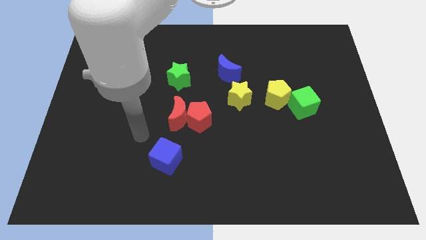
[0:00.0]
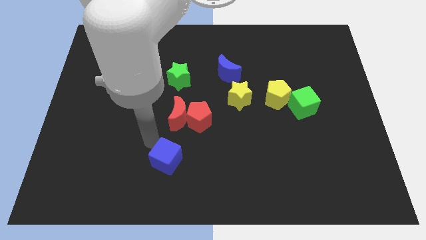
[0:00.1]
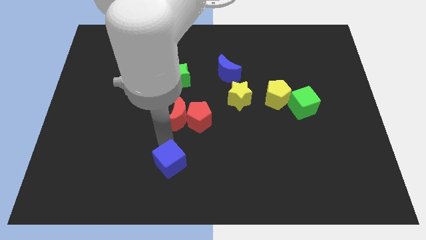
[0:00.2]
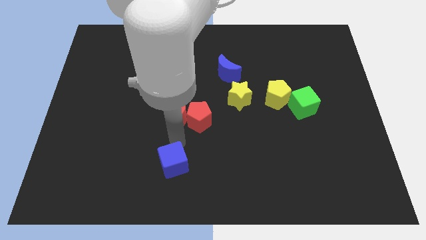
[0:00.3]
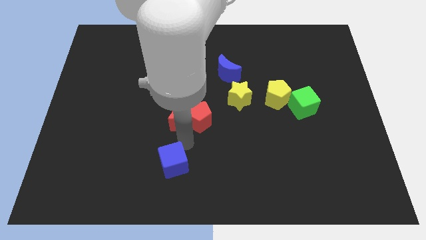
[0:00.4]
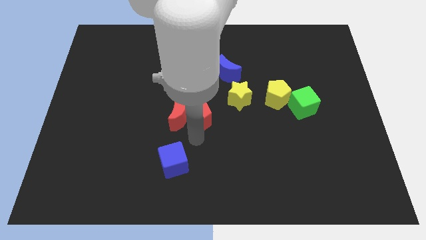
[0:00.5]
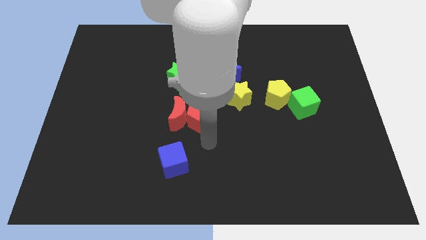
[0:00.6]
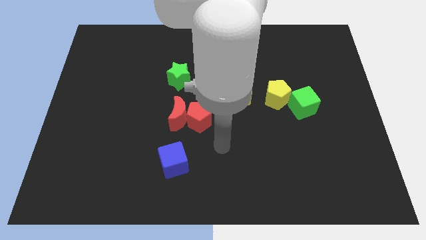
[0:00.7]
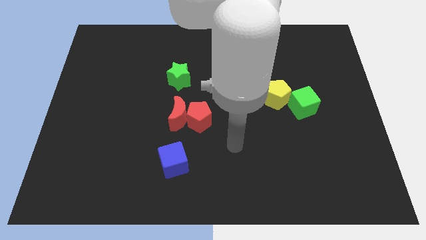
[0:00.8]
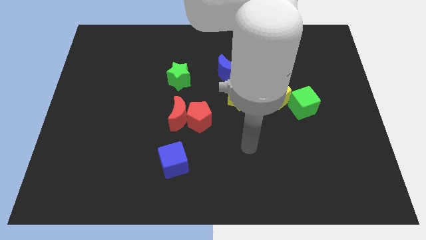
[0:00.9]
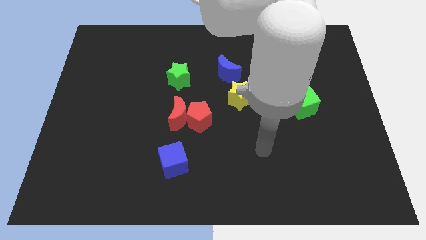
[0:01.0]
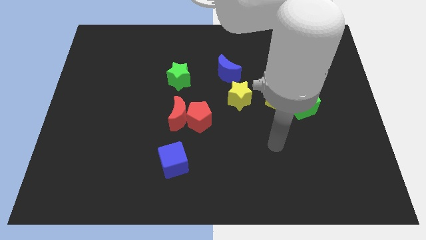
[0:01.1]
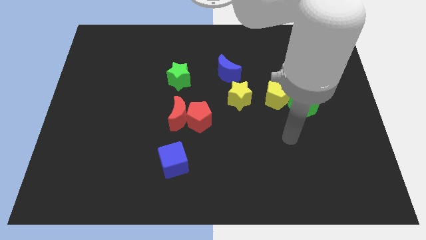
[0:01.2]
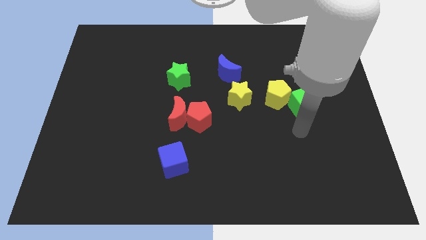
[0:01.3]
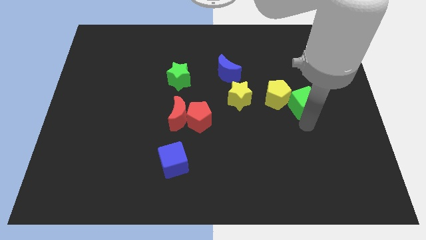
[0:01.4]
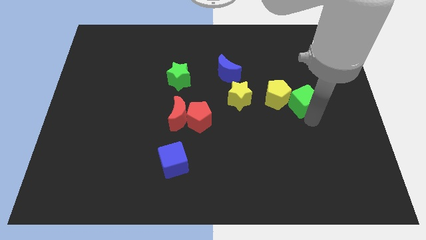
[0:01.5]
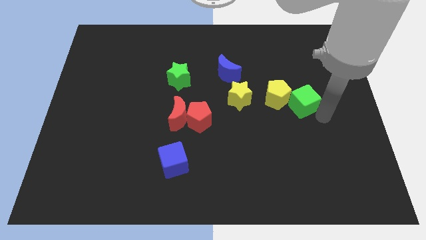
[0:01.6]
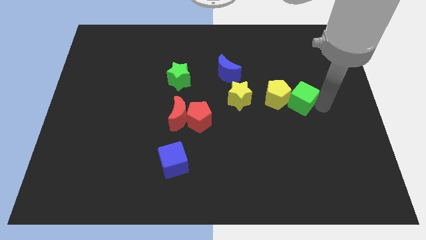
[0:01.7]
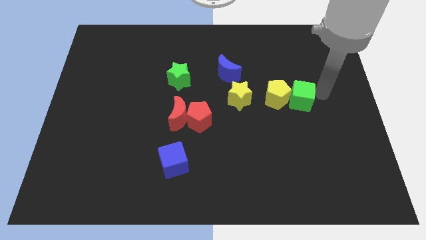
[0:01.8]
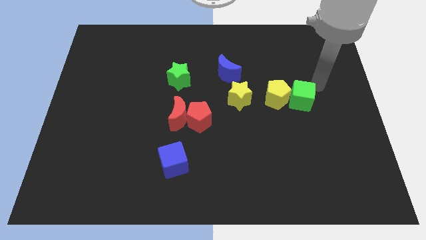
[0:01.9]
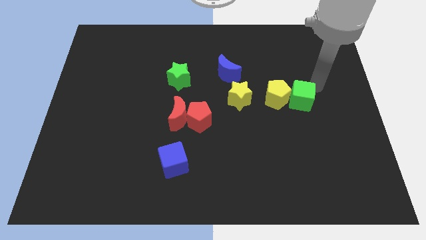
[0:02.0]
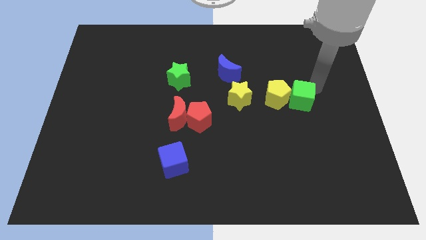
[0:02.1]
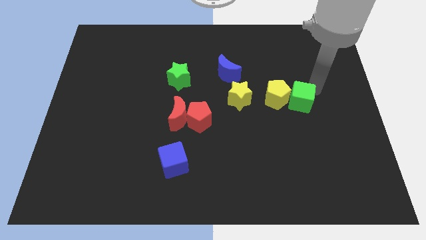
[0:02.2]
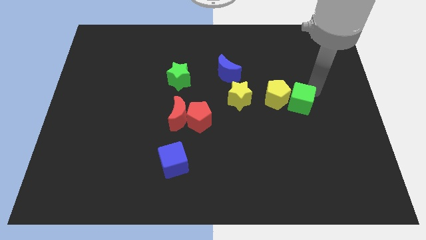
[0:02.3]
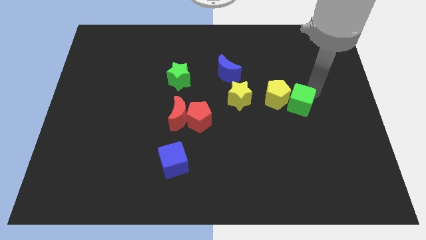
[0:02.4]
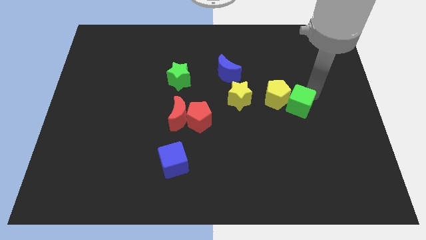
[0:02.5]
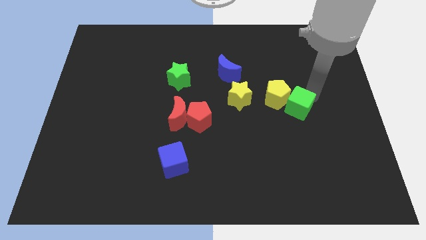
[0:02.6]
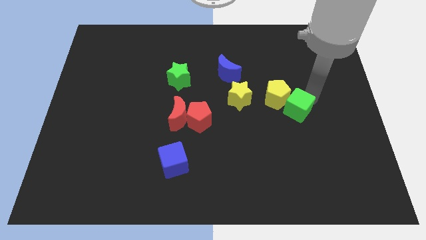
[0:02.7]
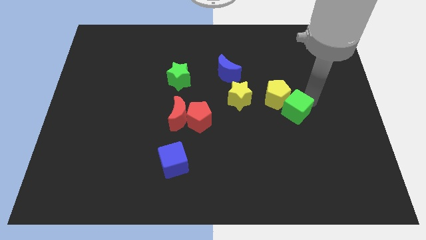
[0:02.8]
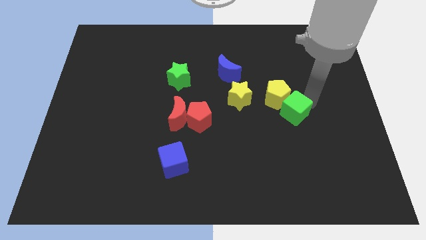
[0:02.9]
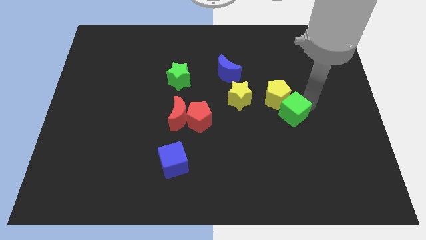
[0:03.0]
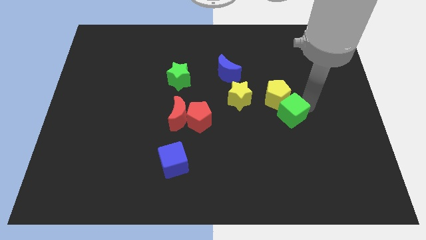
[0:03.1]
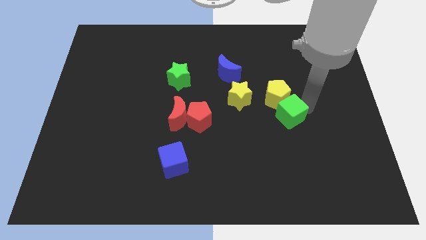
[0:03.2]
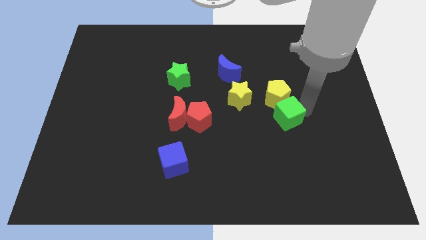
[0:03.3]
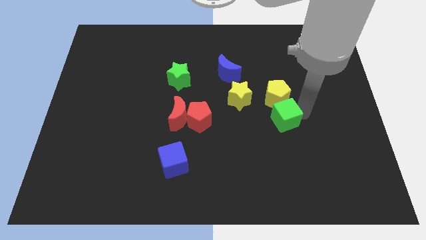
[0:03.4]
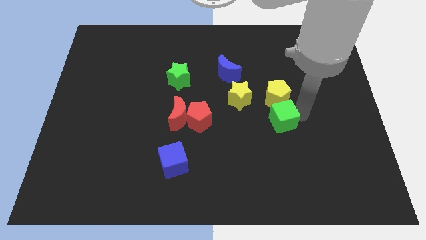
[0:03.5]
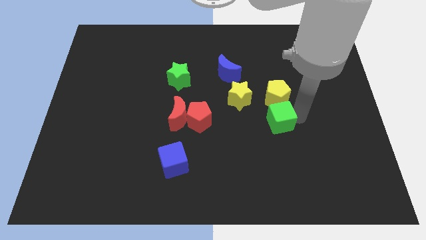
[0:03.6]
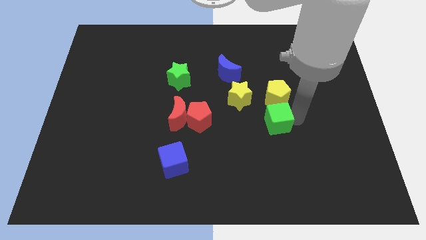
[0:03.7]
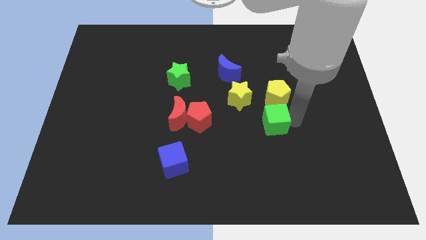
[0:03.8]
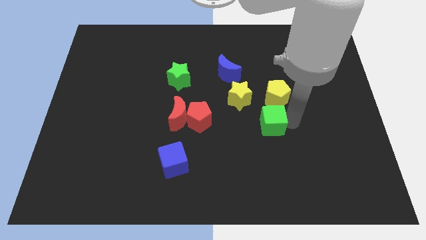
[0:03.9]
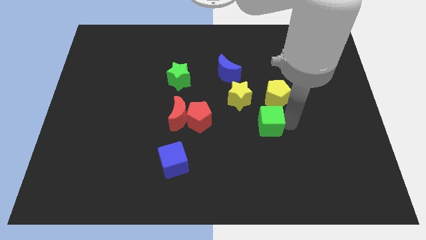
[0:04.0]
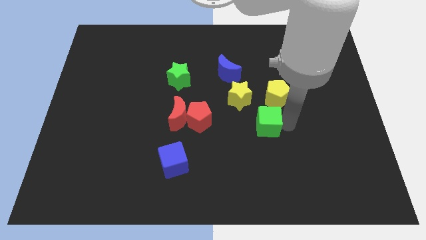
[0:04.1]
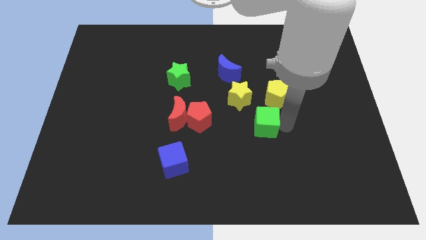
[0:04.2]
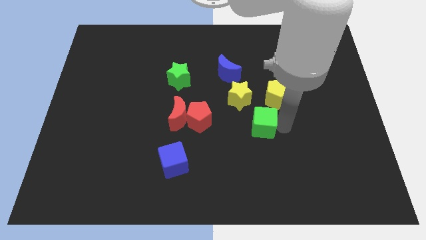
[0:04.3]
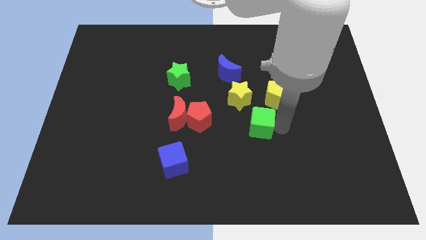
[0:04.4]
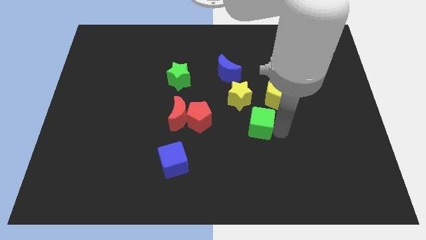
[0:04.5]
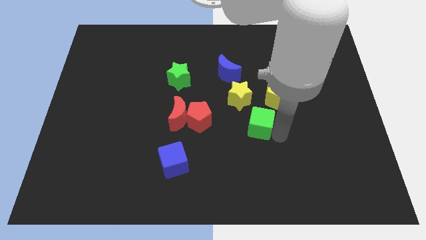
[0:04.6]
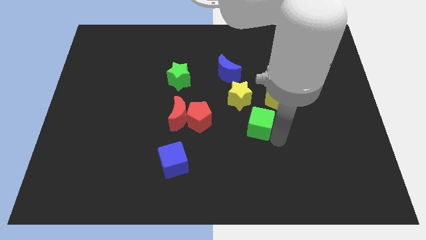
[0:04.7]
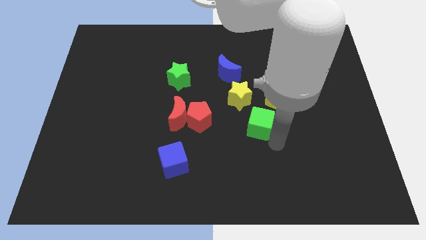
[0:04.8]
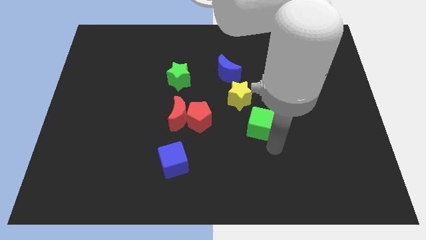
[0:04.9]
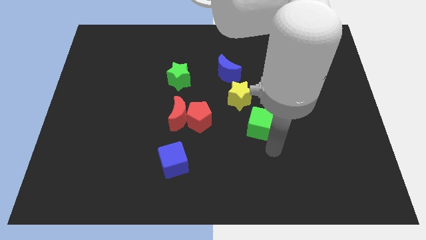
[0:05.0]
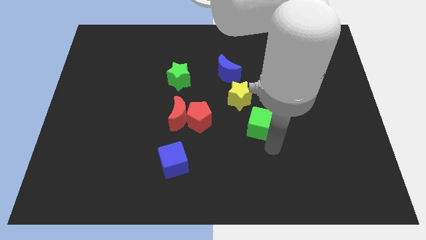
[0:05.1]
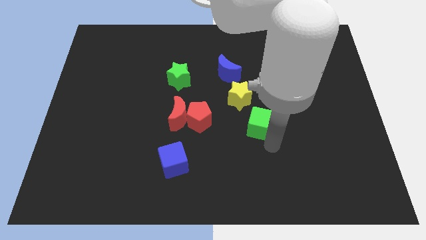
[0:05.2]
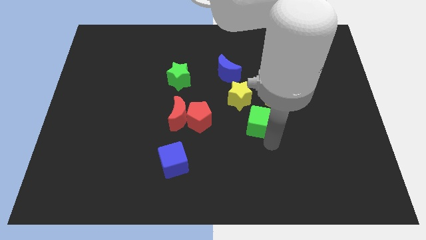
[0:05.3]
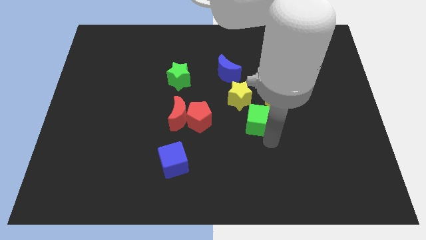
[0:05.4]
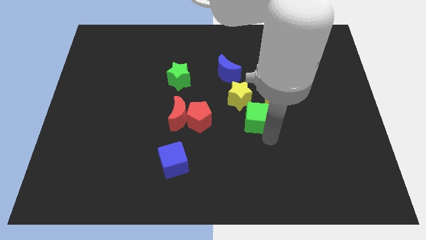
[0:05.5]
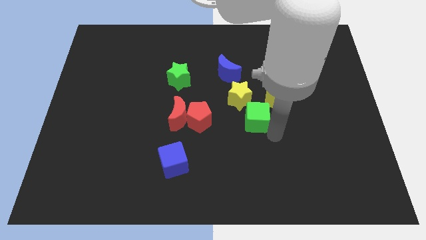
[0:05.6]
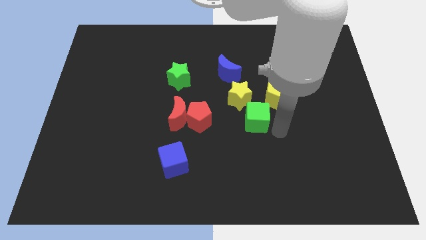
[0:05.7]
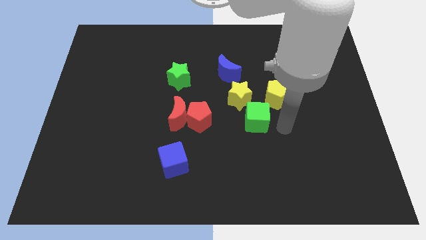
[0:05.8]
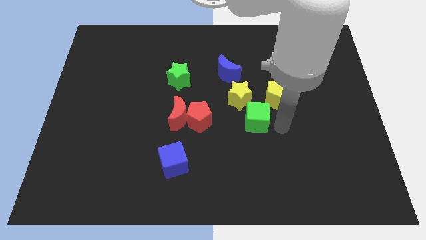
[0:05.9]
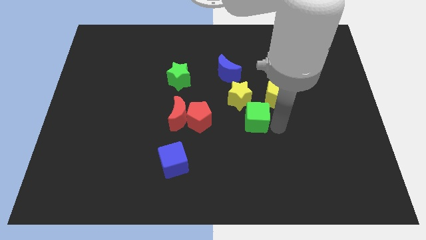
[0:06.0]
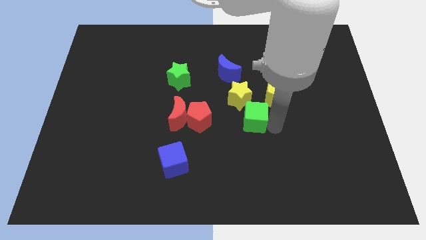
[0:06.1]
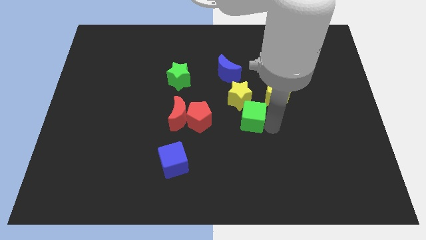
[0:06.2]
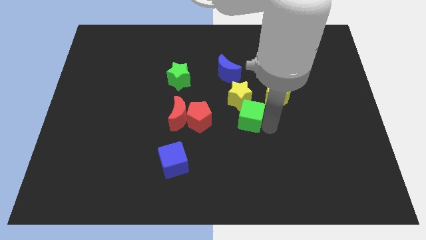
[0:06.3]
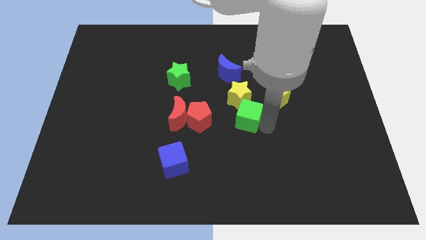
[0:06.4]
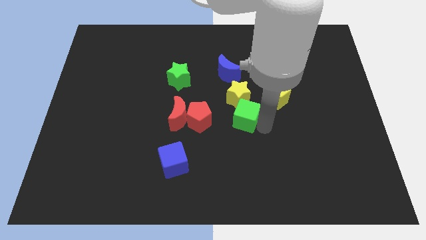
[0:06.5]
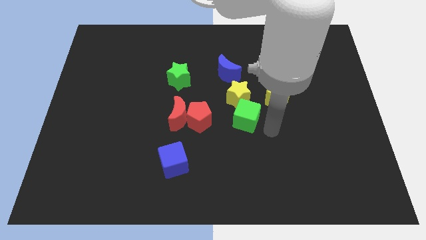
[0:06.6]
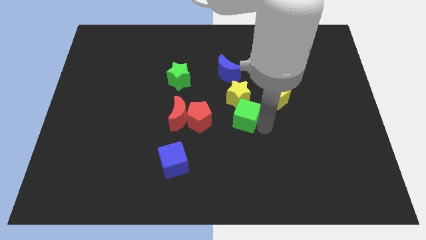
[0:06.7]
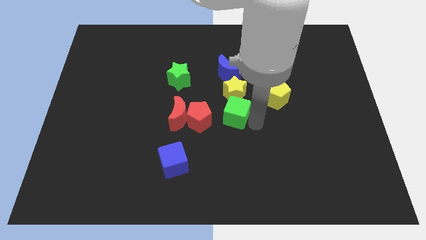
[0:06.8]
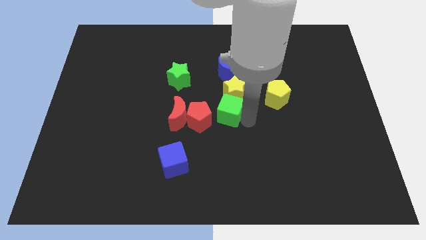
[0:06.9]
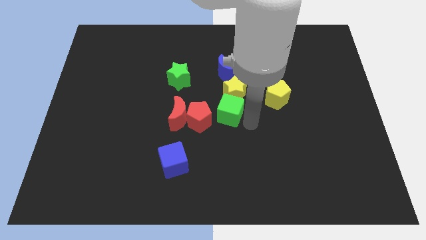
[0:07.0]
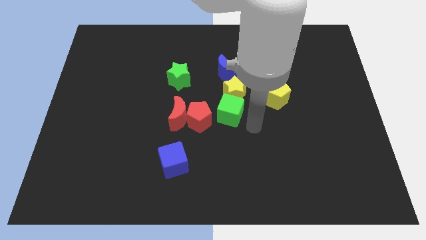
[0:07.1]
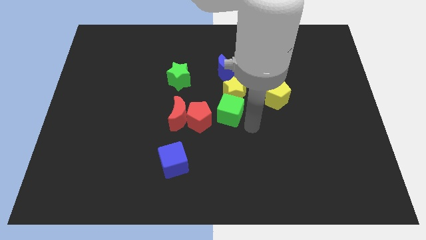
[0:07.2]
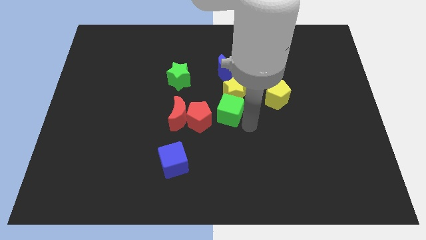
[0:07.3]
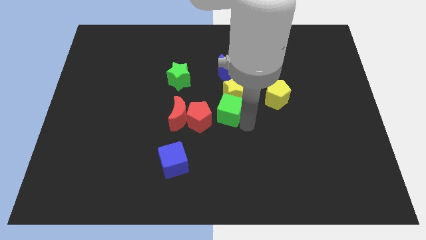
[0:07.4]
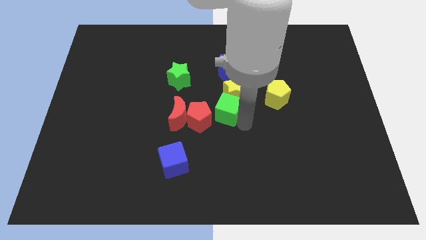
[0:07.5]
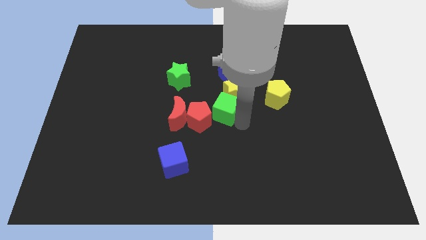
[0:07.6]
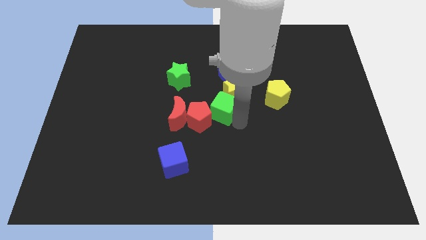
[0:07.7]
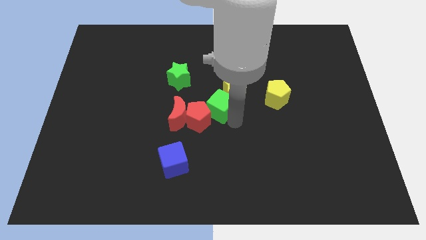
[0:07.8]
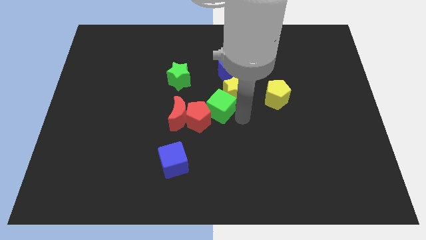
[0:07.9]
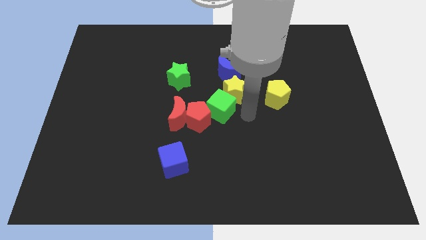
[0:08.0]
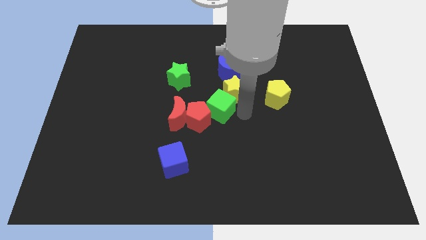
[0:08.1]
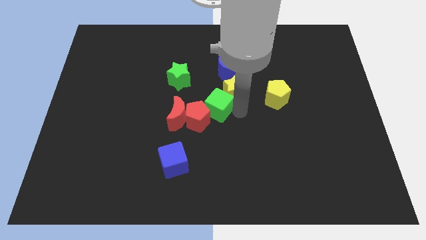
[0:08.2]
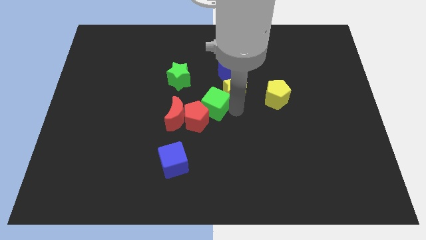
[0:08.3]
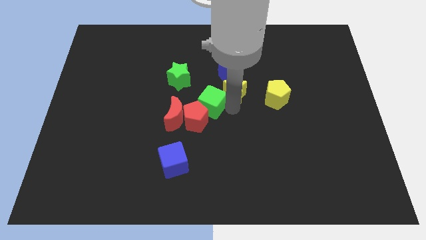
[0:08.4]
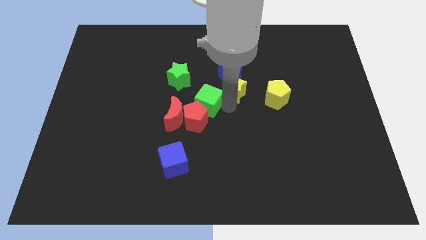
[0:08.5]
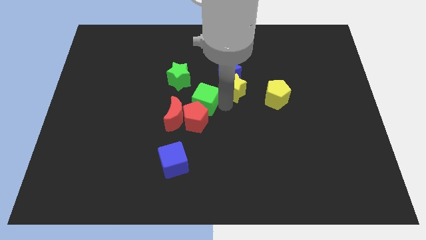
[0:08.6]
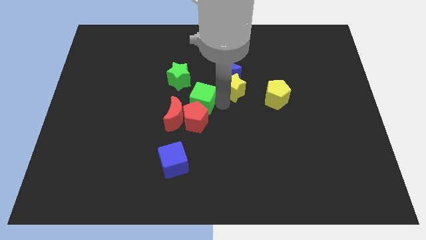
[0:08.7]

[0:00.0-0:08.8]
move the green cube to the top left side of the red pentagon
